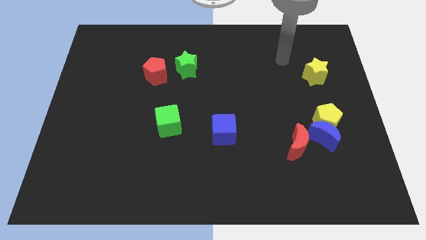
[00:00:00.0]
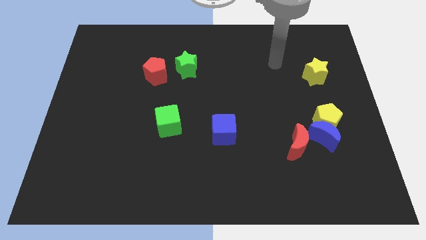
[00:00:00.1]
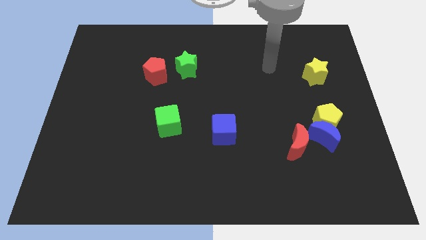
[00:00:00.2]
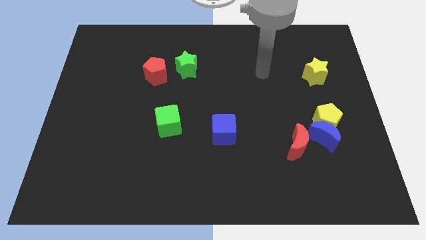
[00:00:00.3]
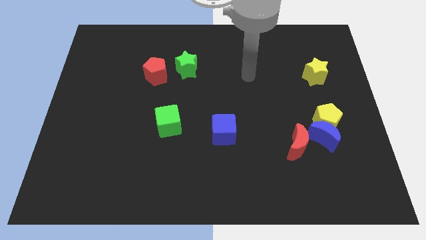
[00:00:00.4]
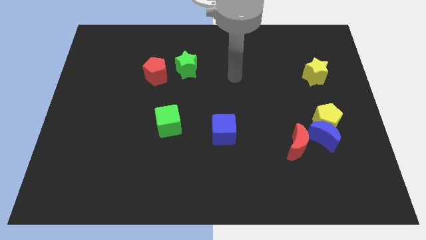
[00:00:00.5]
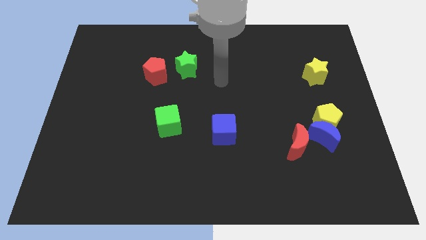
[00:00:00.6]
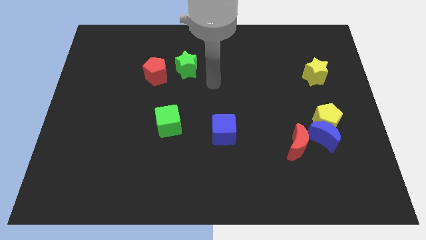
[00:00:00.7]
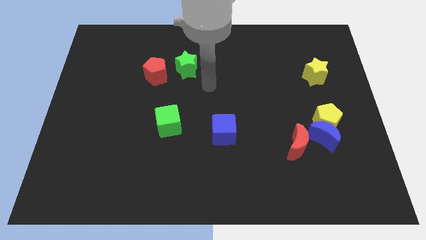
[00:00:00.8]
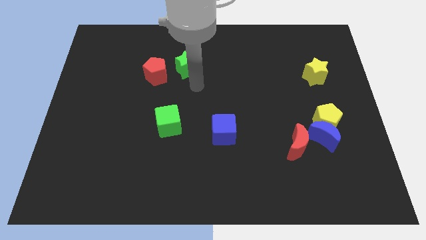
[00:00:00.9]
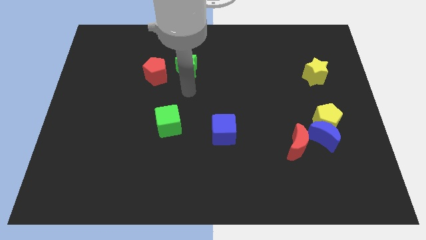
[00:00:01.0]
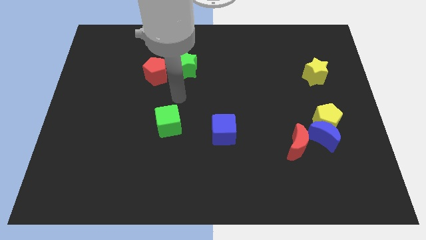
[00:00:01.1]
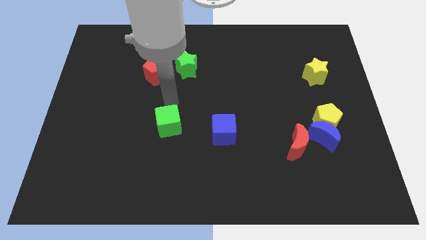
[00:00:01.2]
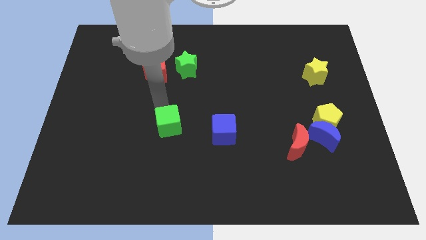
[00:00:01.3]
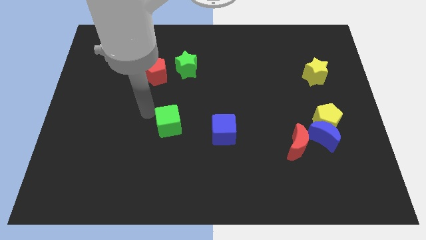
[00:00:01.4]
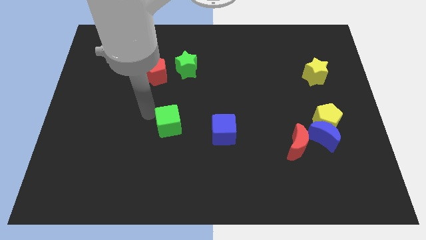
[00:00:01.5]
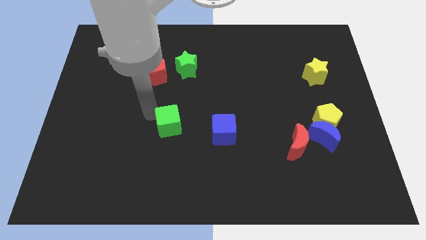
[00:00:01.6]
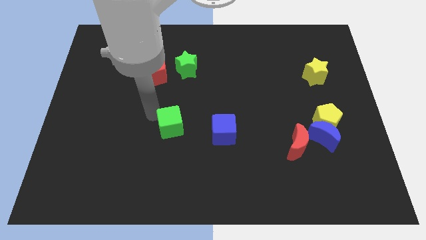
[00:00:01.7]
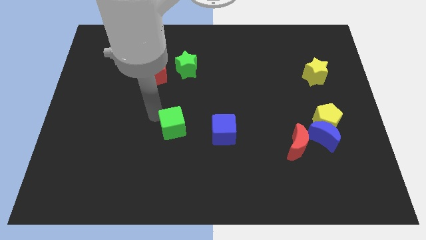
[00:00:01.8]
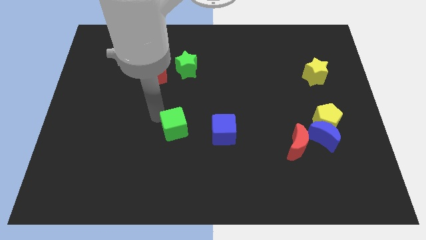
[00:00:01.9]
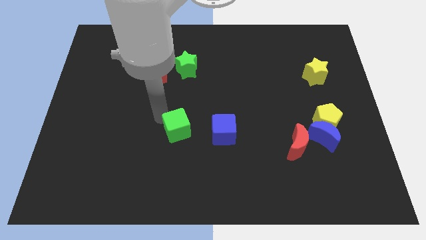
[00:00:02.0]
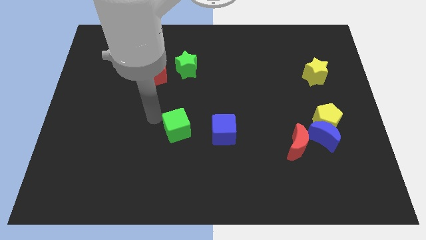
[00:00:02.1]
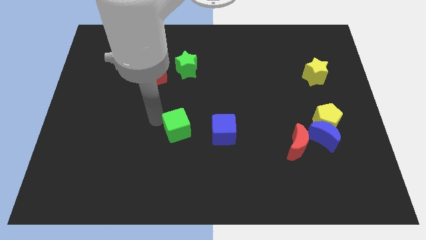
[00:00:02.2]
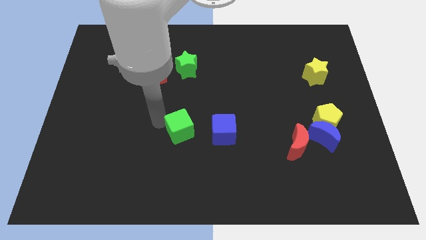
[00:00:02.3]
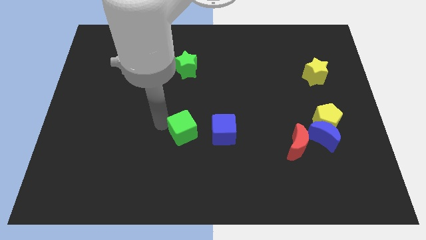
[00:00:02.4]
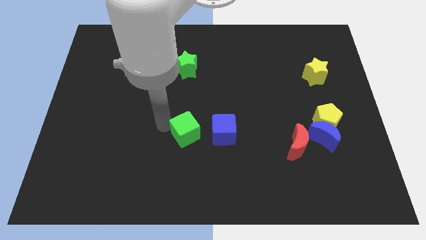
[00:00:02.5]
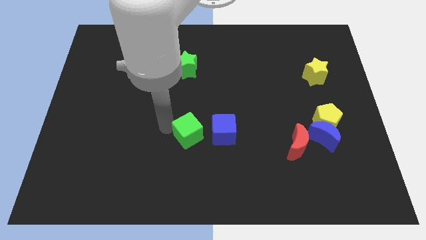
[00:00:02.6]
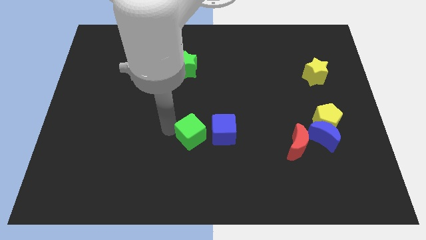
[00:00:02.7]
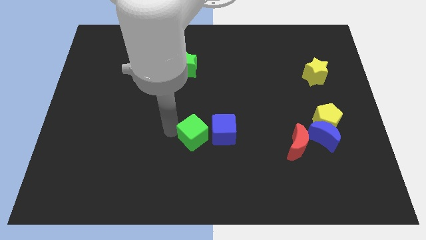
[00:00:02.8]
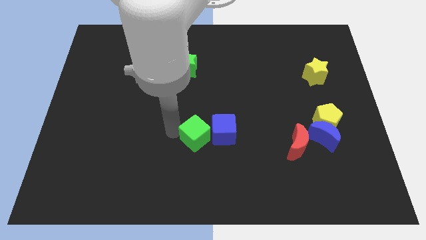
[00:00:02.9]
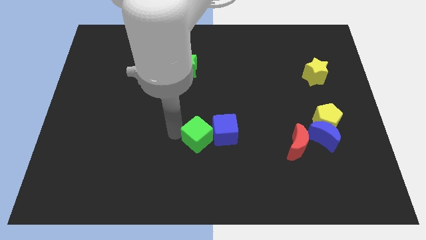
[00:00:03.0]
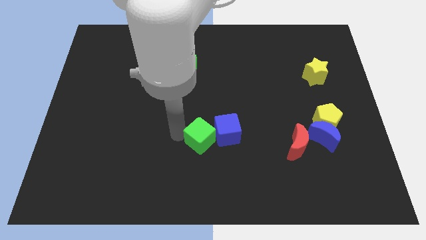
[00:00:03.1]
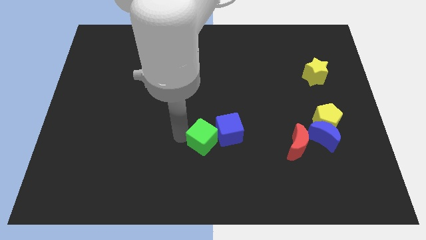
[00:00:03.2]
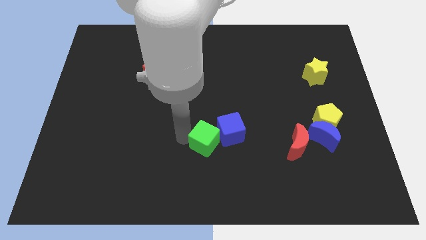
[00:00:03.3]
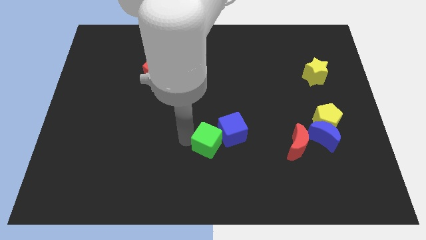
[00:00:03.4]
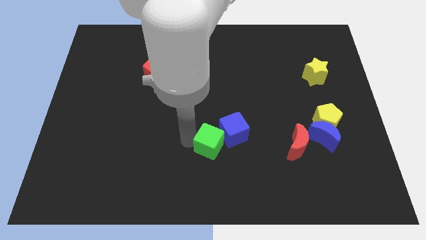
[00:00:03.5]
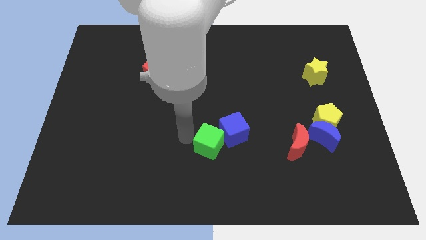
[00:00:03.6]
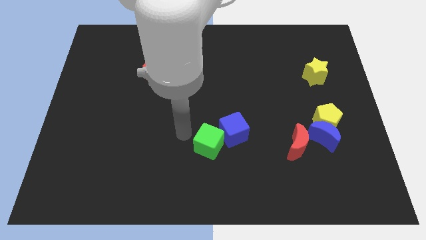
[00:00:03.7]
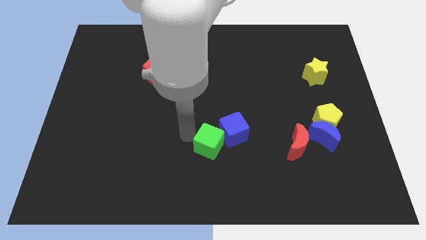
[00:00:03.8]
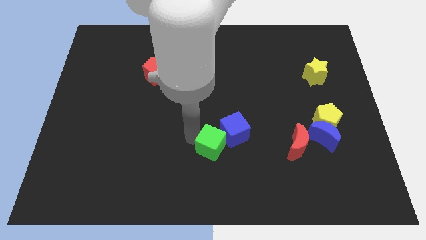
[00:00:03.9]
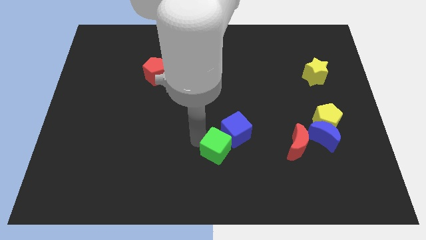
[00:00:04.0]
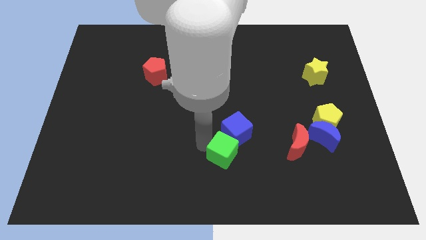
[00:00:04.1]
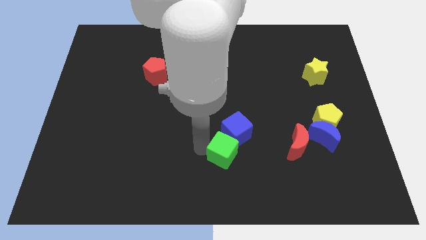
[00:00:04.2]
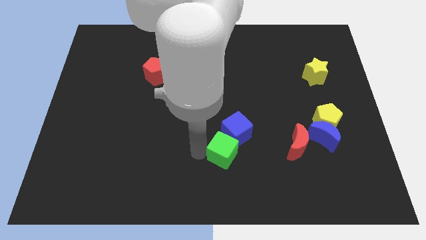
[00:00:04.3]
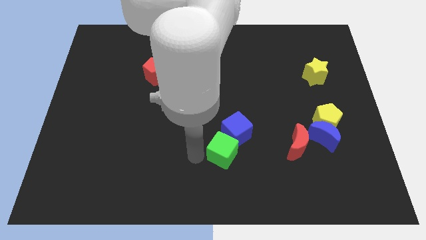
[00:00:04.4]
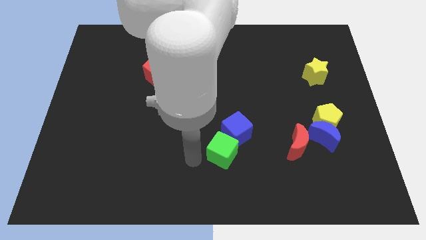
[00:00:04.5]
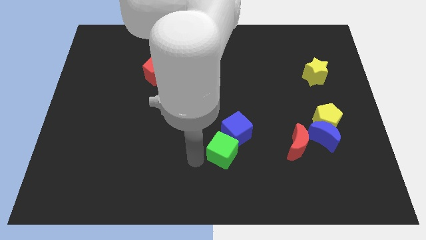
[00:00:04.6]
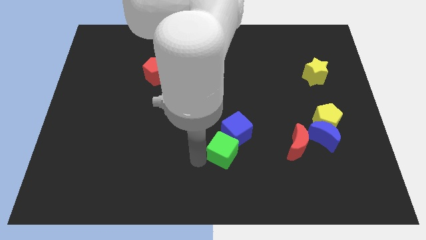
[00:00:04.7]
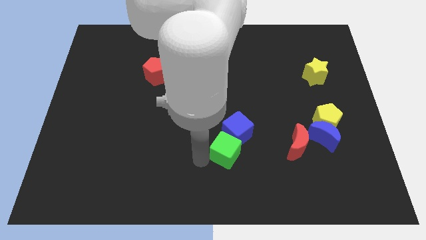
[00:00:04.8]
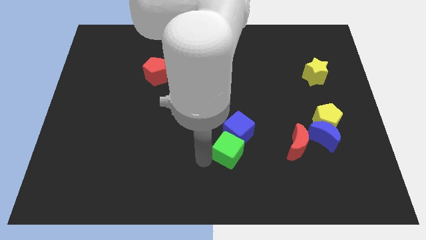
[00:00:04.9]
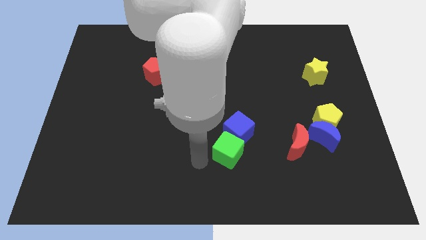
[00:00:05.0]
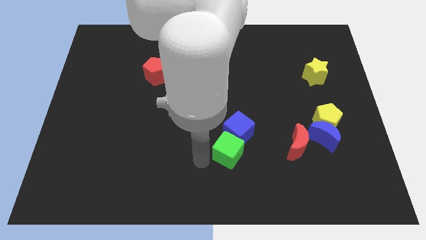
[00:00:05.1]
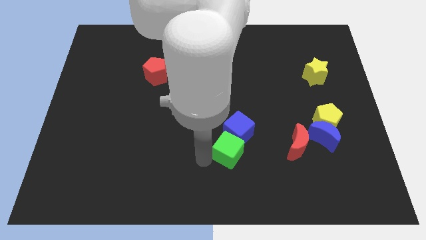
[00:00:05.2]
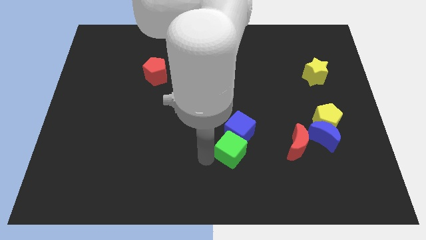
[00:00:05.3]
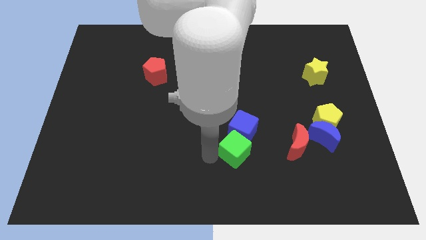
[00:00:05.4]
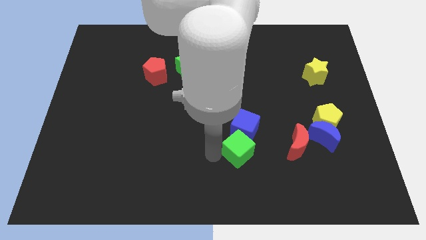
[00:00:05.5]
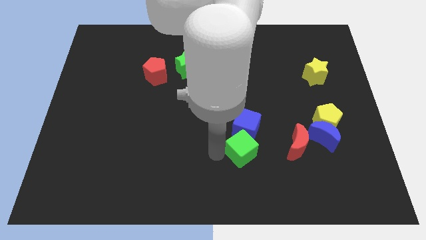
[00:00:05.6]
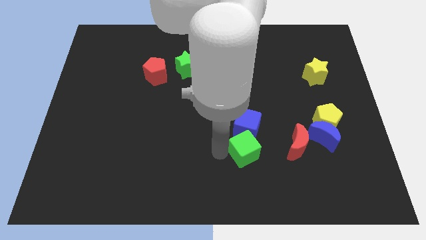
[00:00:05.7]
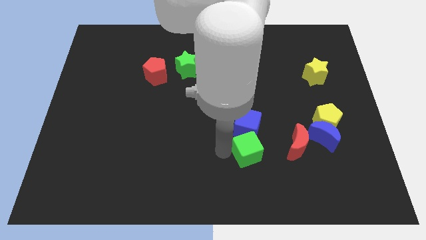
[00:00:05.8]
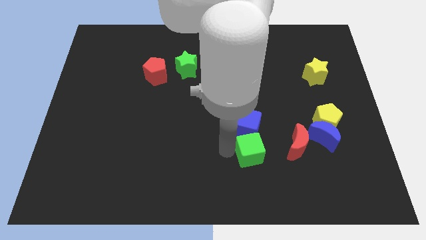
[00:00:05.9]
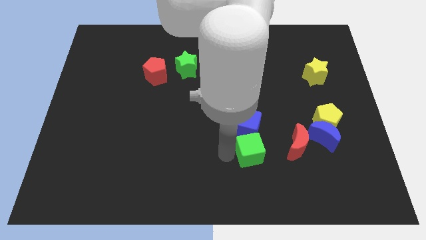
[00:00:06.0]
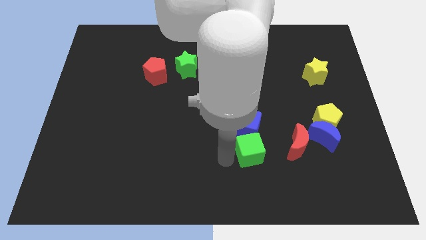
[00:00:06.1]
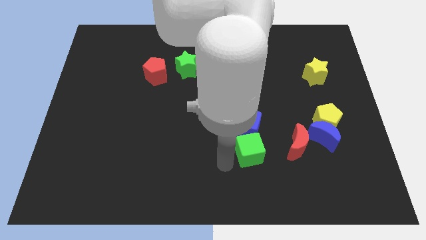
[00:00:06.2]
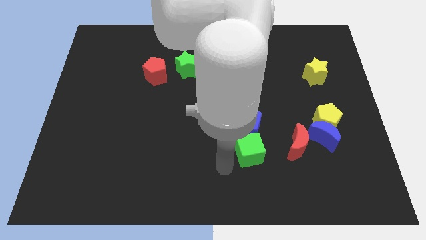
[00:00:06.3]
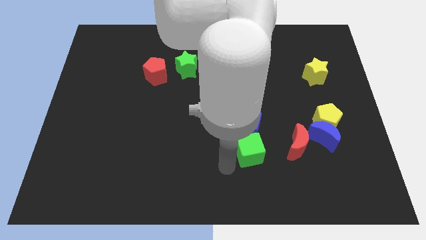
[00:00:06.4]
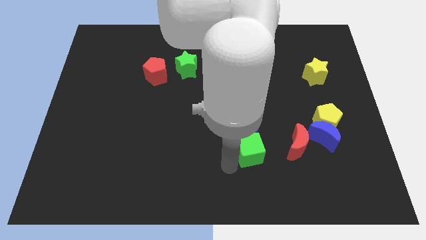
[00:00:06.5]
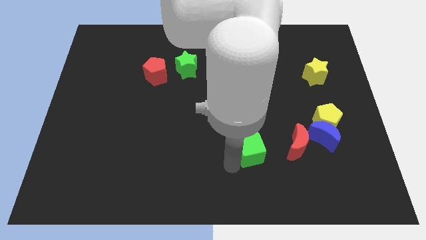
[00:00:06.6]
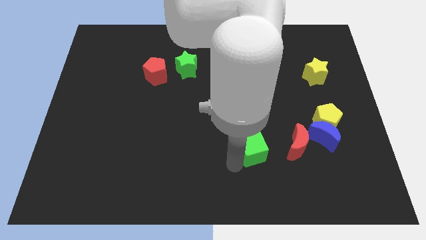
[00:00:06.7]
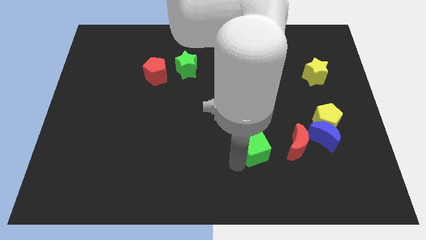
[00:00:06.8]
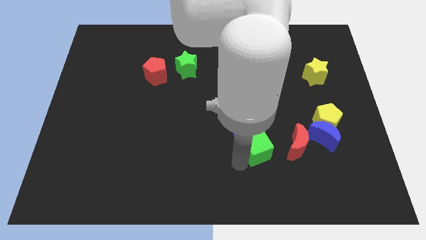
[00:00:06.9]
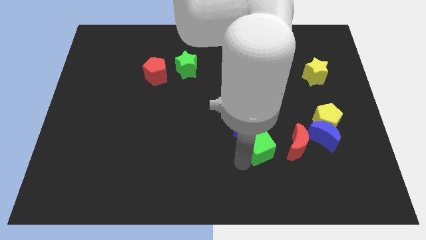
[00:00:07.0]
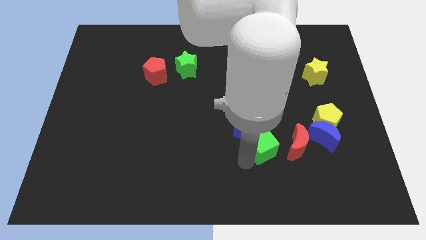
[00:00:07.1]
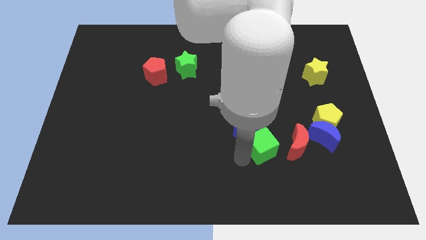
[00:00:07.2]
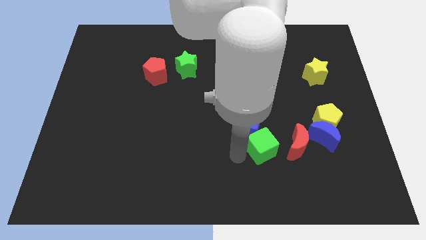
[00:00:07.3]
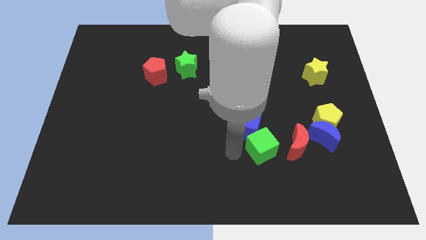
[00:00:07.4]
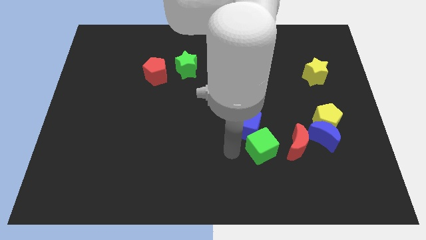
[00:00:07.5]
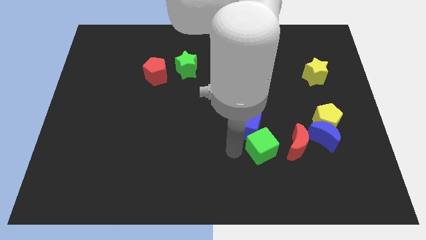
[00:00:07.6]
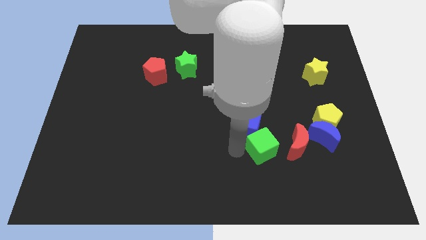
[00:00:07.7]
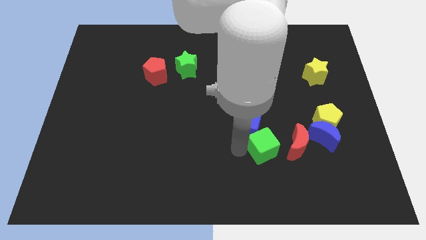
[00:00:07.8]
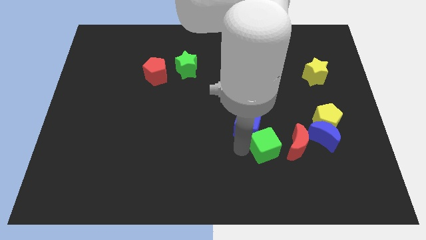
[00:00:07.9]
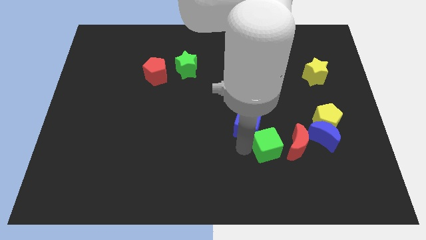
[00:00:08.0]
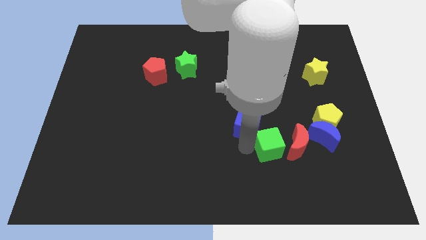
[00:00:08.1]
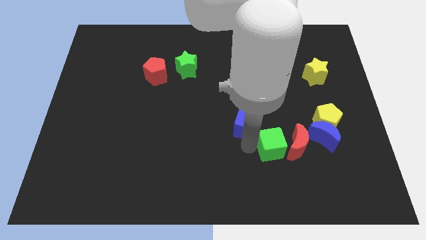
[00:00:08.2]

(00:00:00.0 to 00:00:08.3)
slide the green cube to the red moon
